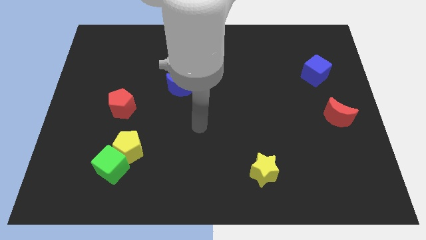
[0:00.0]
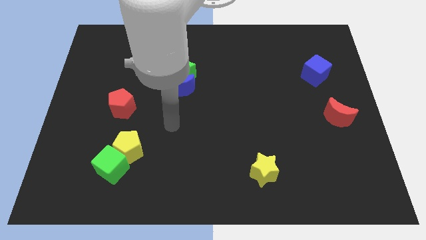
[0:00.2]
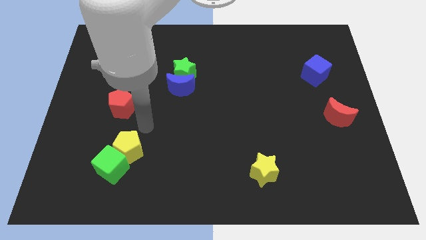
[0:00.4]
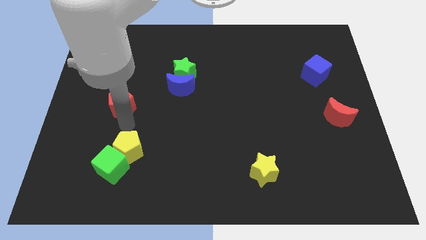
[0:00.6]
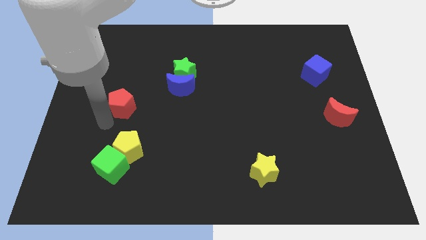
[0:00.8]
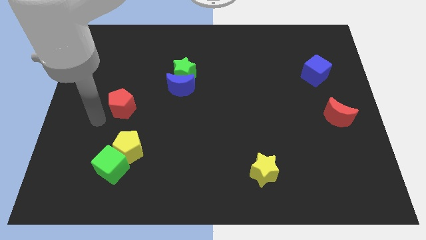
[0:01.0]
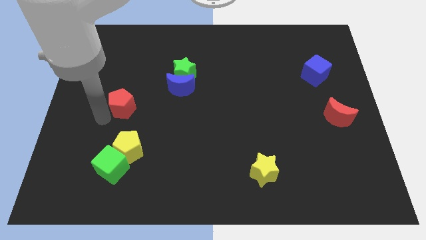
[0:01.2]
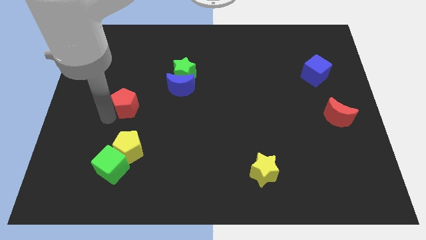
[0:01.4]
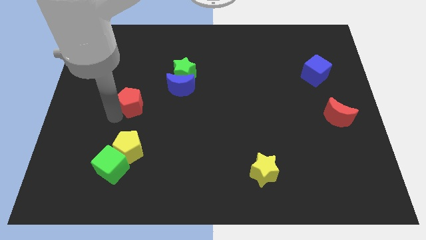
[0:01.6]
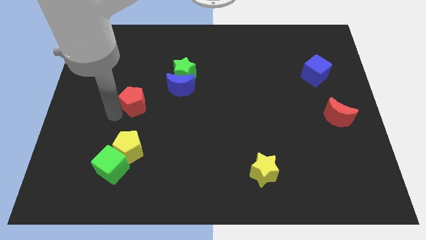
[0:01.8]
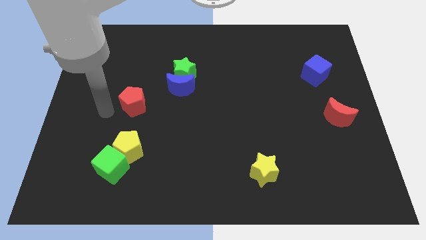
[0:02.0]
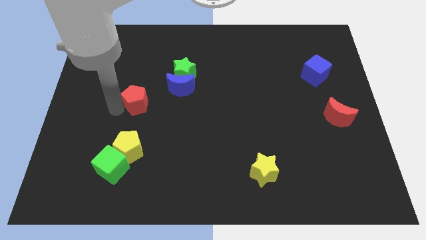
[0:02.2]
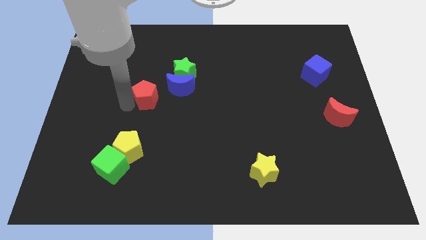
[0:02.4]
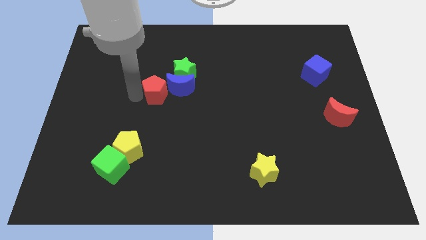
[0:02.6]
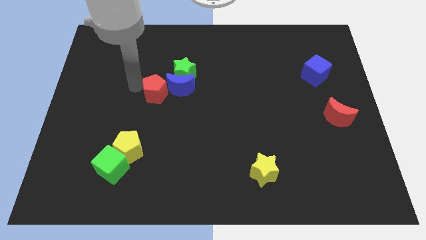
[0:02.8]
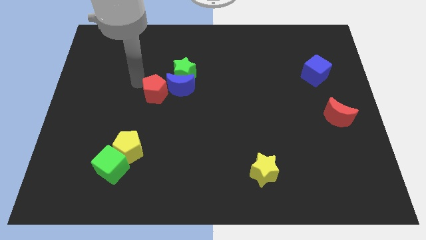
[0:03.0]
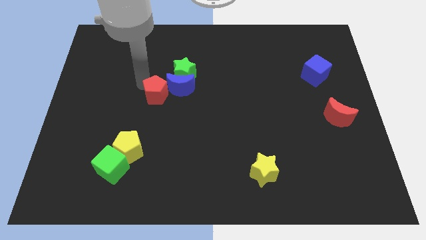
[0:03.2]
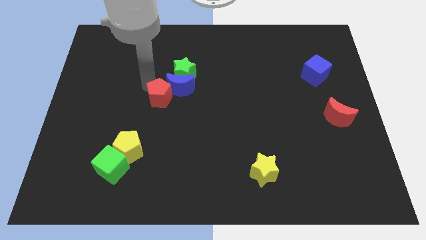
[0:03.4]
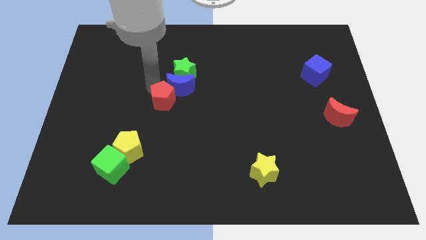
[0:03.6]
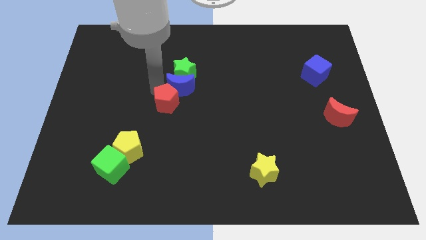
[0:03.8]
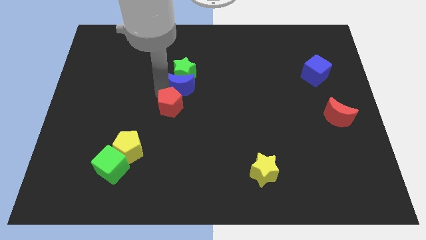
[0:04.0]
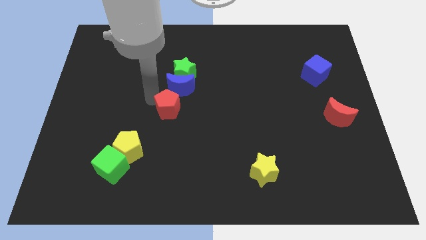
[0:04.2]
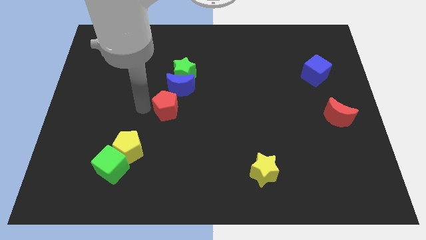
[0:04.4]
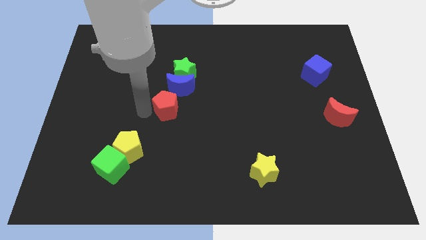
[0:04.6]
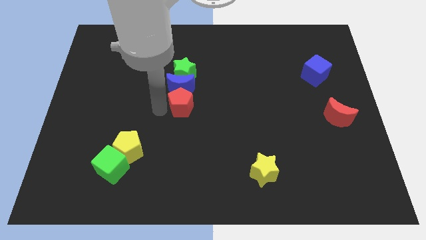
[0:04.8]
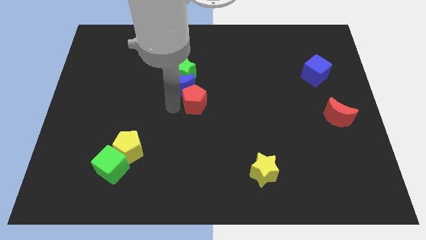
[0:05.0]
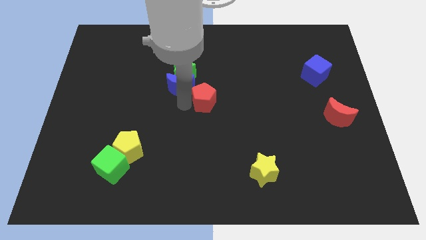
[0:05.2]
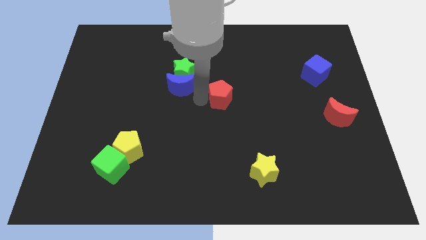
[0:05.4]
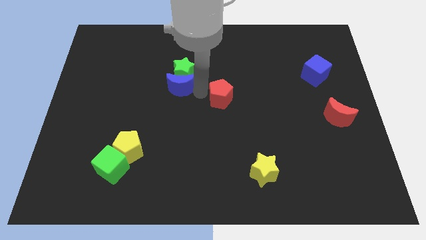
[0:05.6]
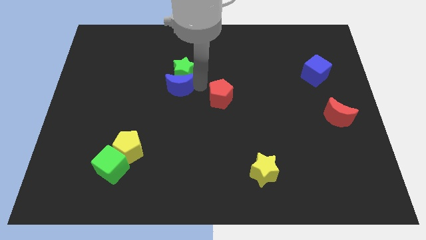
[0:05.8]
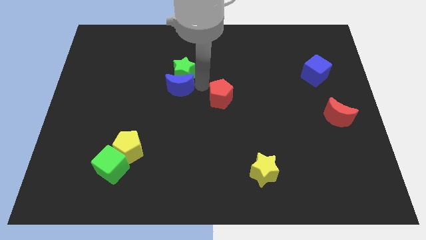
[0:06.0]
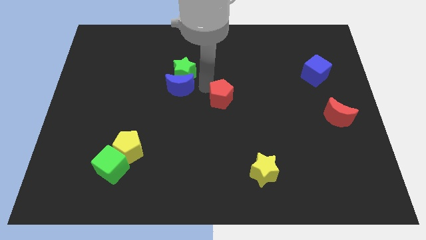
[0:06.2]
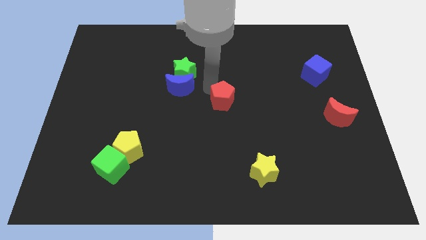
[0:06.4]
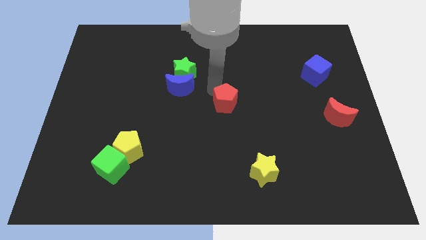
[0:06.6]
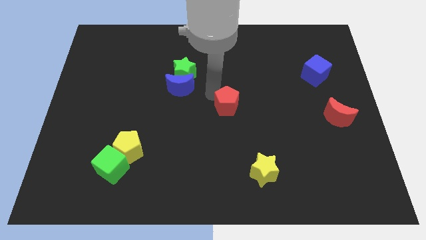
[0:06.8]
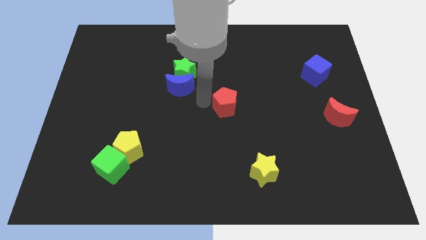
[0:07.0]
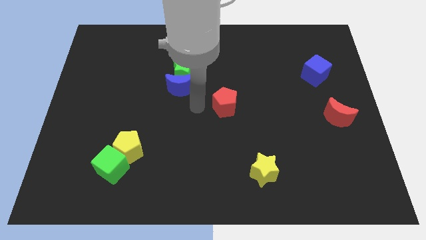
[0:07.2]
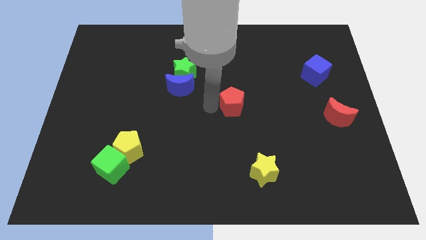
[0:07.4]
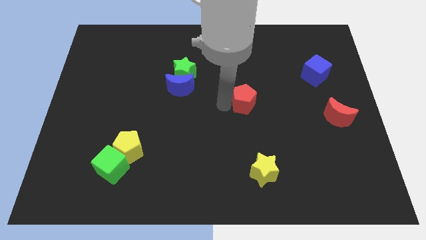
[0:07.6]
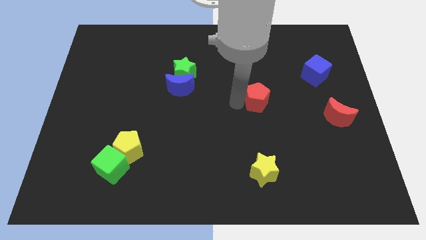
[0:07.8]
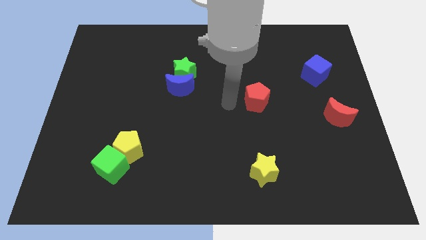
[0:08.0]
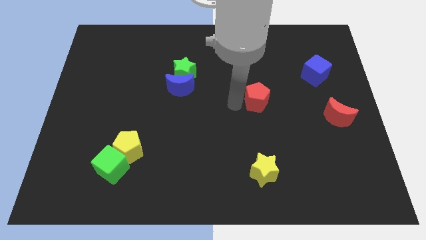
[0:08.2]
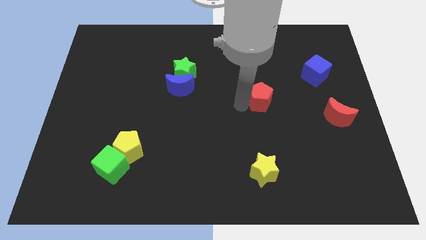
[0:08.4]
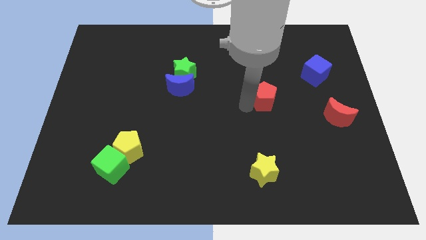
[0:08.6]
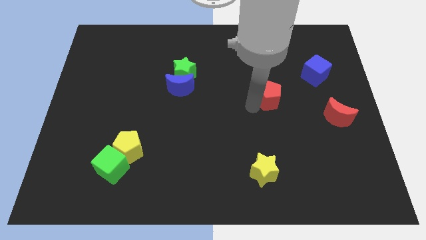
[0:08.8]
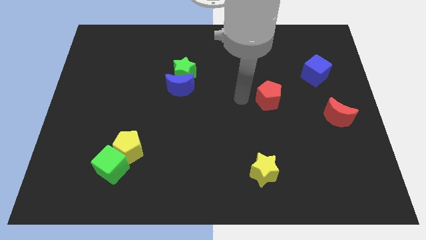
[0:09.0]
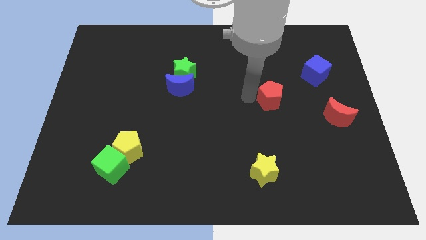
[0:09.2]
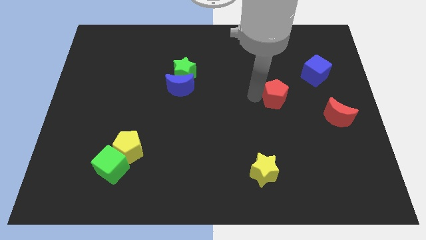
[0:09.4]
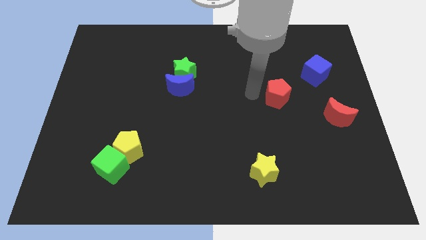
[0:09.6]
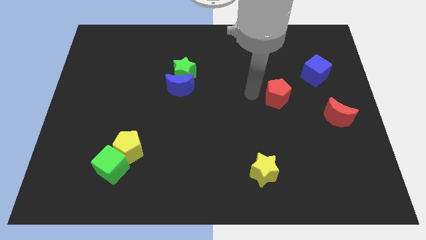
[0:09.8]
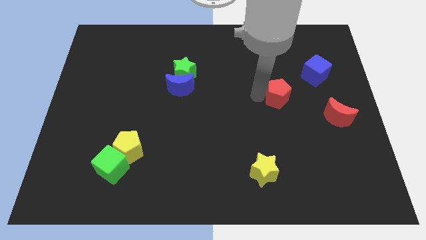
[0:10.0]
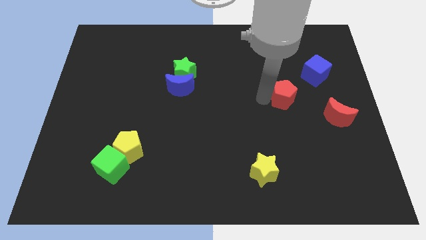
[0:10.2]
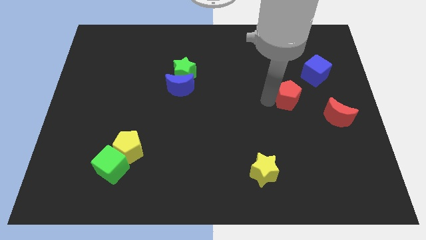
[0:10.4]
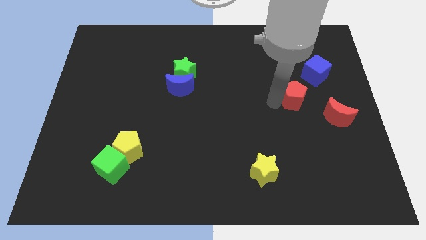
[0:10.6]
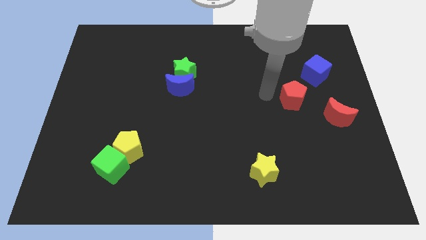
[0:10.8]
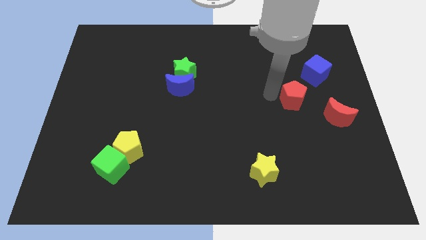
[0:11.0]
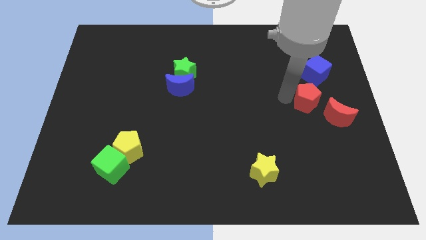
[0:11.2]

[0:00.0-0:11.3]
move the red pentagon to the bottom of the blue cube

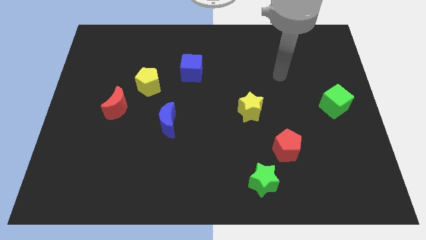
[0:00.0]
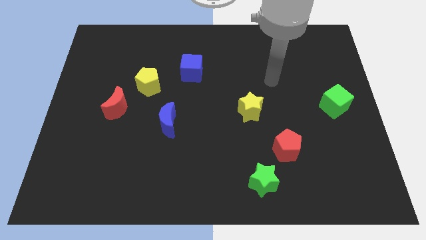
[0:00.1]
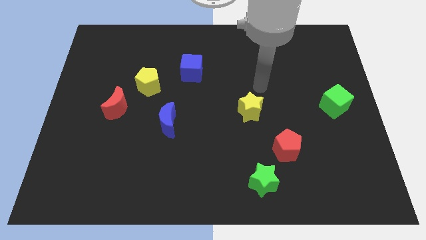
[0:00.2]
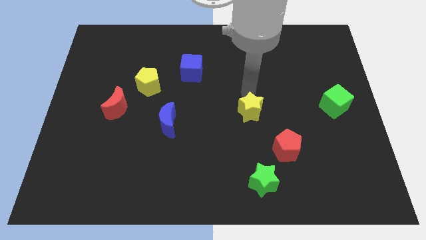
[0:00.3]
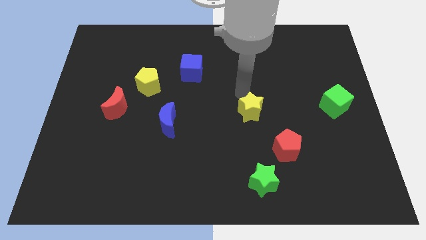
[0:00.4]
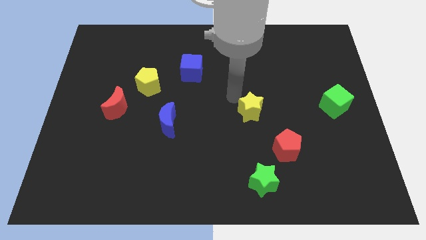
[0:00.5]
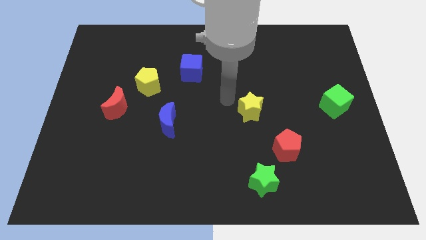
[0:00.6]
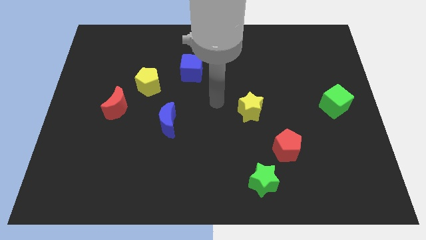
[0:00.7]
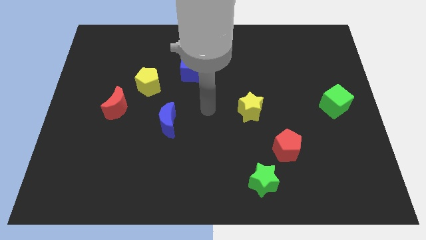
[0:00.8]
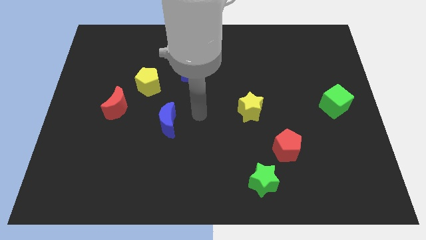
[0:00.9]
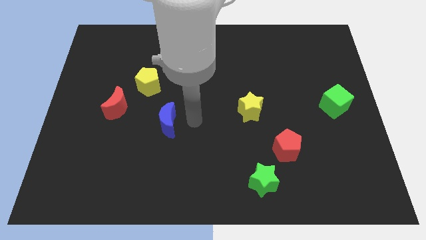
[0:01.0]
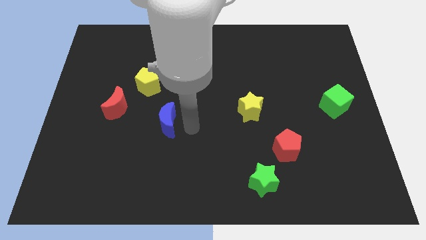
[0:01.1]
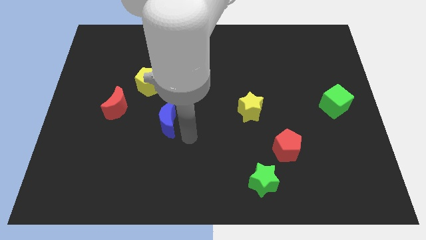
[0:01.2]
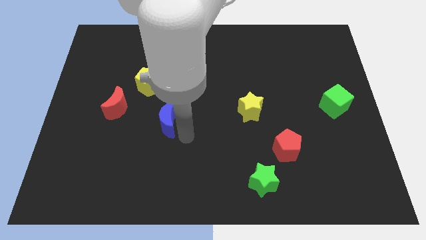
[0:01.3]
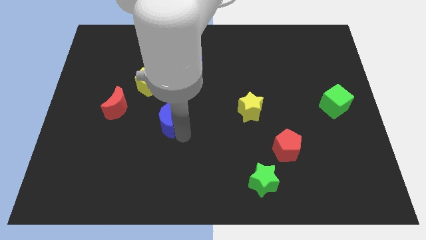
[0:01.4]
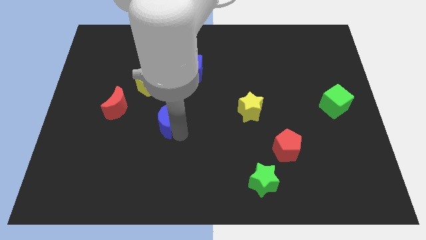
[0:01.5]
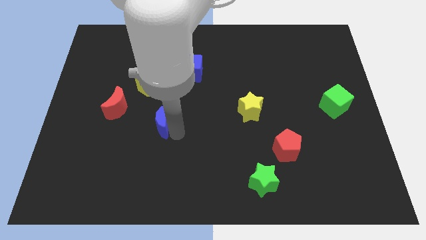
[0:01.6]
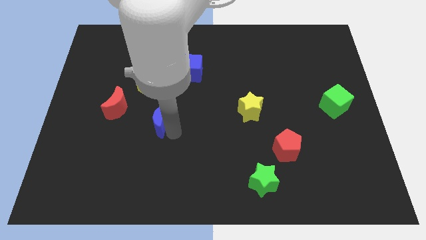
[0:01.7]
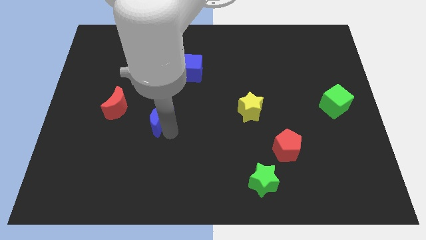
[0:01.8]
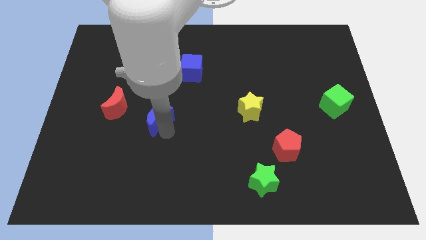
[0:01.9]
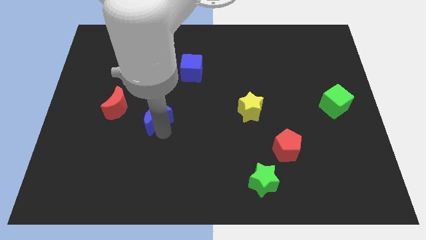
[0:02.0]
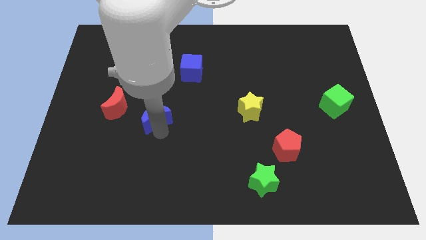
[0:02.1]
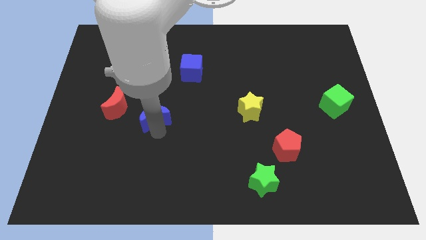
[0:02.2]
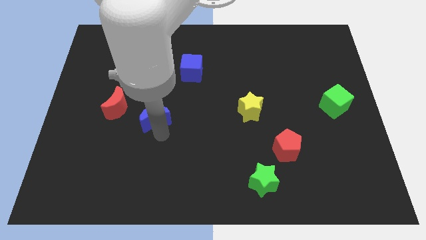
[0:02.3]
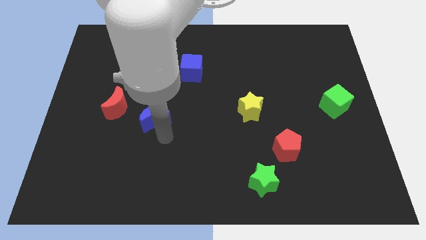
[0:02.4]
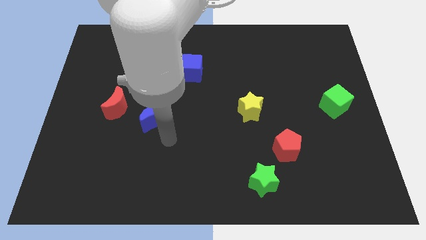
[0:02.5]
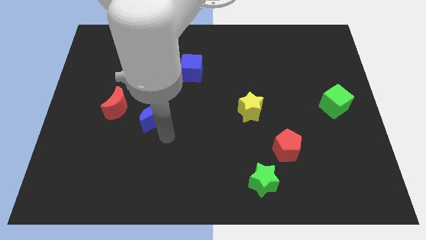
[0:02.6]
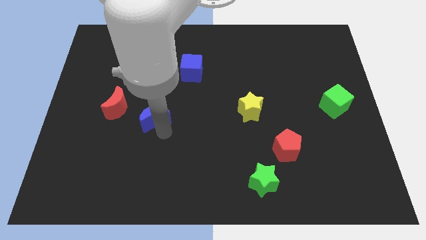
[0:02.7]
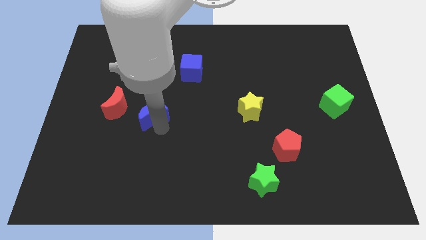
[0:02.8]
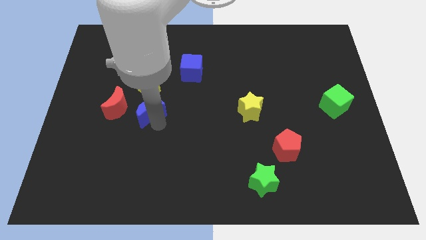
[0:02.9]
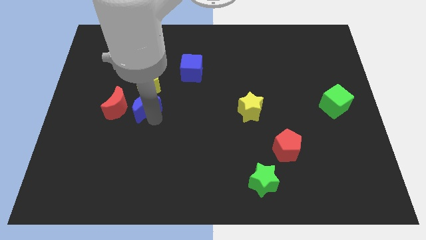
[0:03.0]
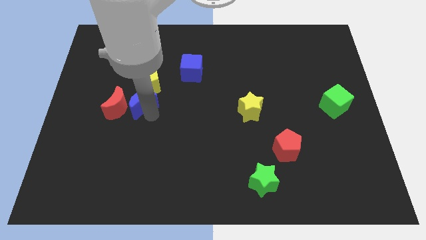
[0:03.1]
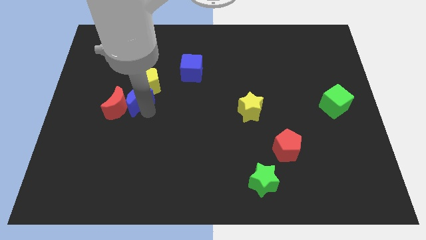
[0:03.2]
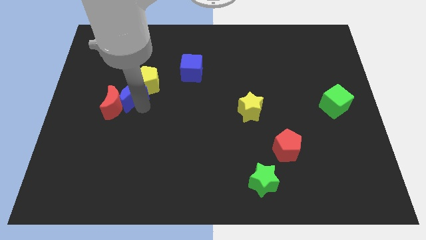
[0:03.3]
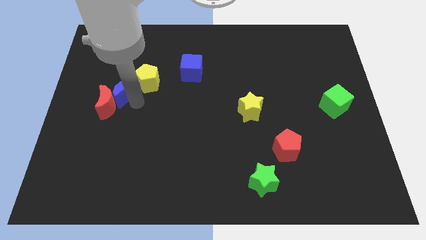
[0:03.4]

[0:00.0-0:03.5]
push the blue moon to the top of the red moon
